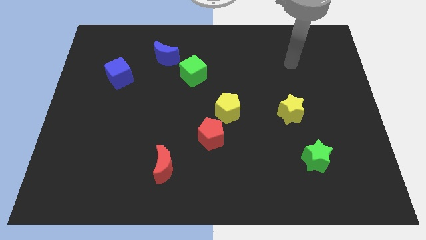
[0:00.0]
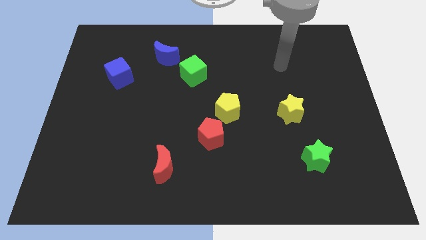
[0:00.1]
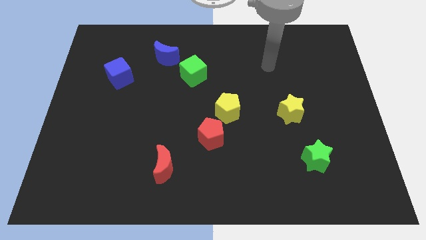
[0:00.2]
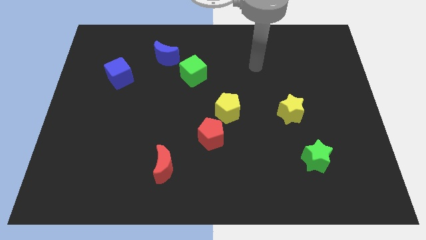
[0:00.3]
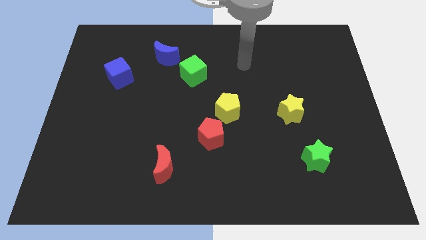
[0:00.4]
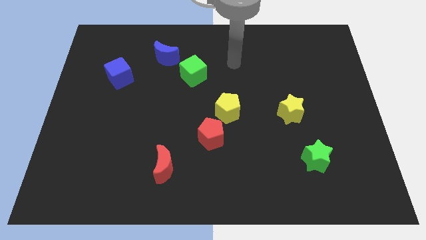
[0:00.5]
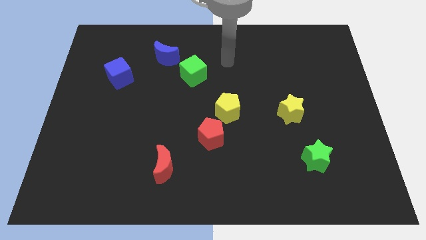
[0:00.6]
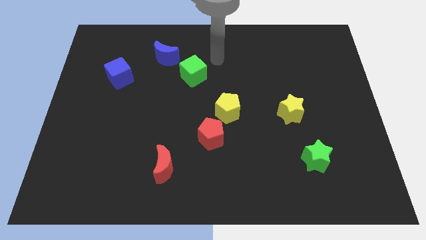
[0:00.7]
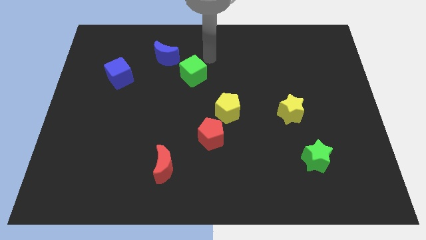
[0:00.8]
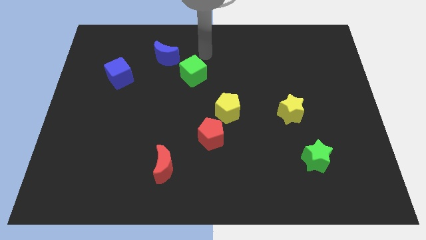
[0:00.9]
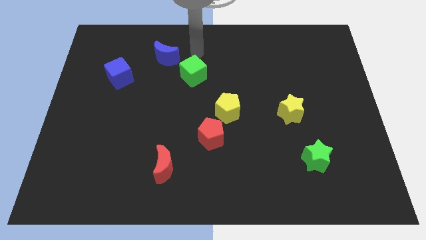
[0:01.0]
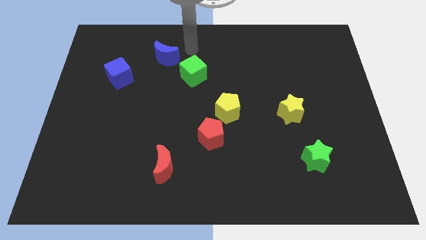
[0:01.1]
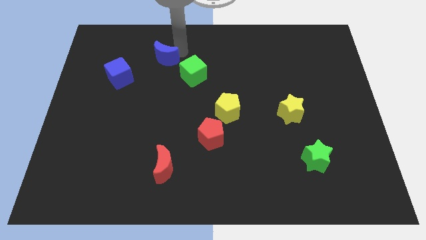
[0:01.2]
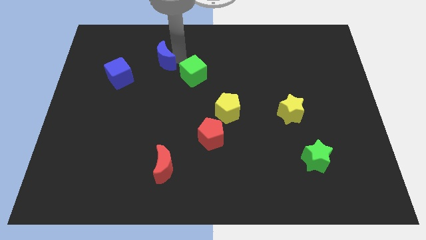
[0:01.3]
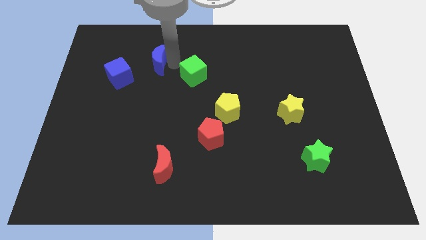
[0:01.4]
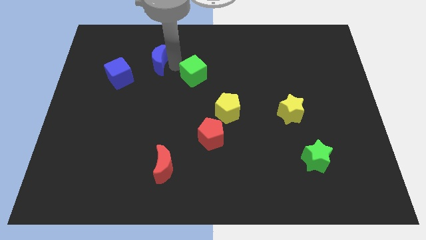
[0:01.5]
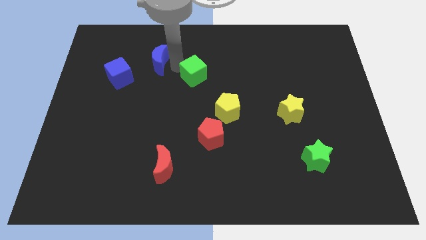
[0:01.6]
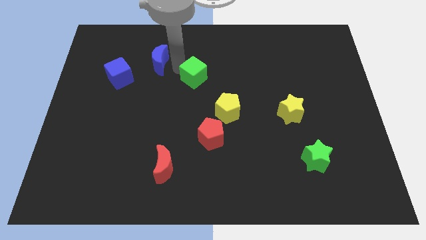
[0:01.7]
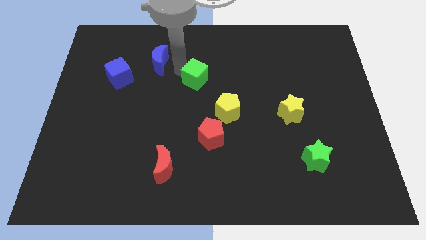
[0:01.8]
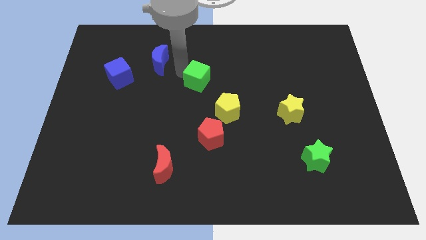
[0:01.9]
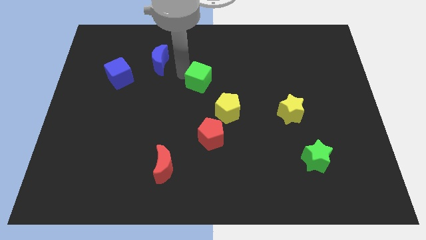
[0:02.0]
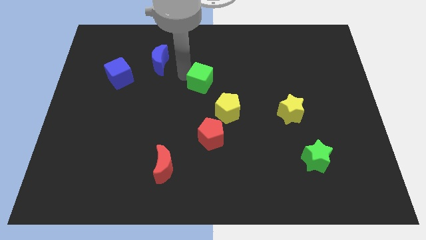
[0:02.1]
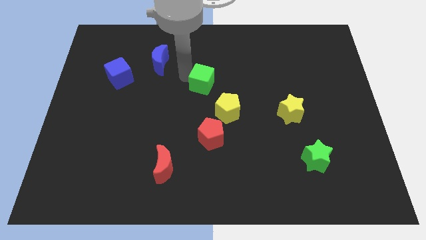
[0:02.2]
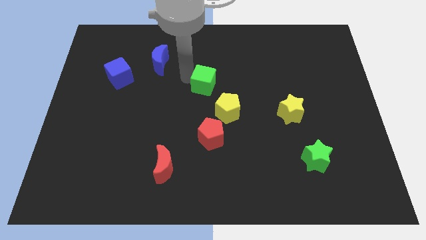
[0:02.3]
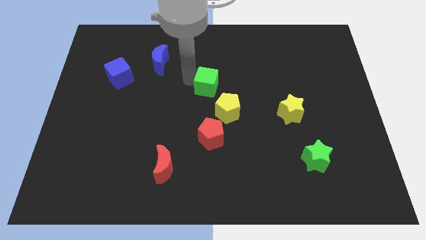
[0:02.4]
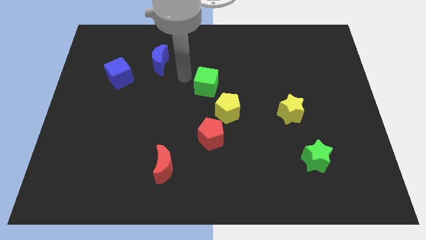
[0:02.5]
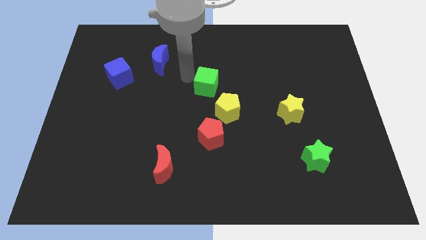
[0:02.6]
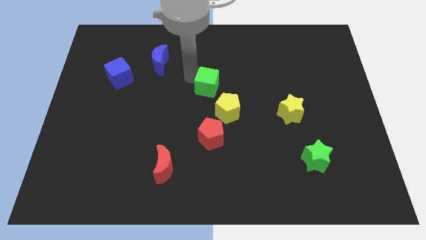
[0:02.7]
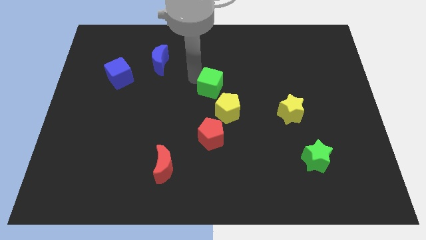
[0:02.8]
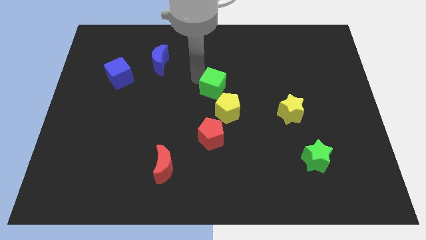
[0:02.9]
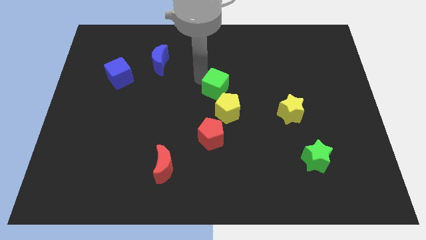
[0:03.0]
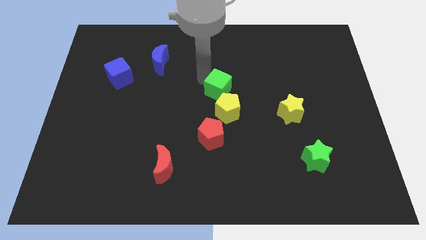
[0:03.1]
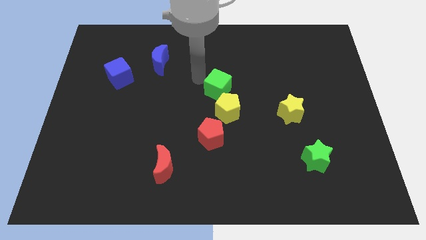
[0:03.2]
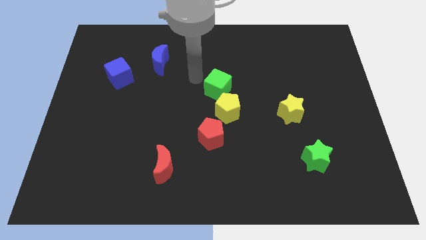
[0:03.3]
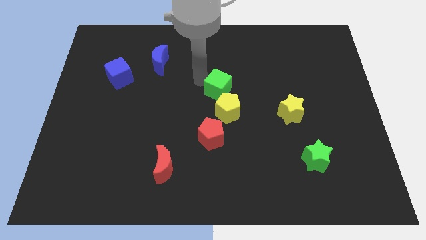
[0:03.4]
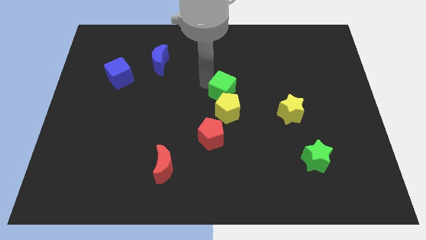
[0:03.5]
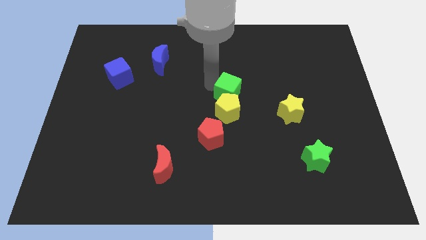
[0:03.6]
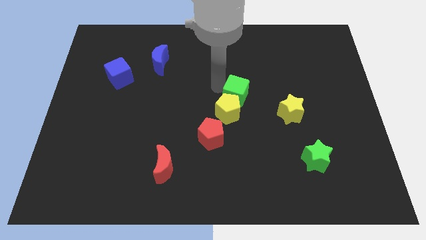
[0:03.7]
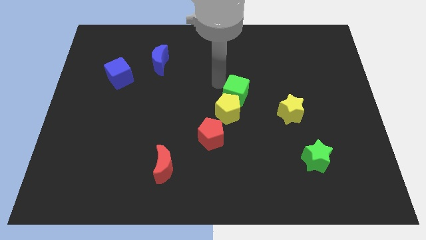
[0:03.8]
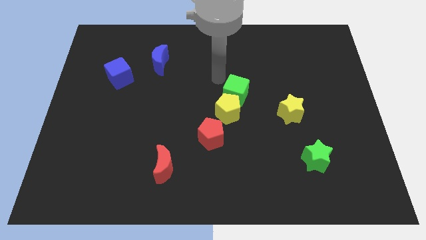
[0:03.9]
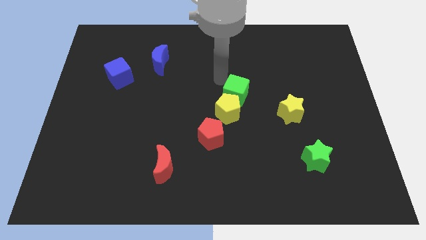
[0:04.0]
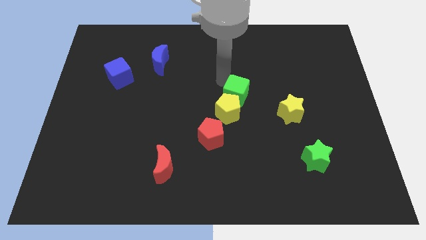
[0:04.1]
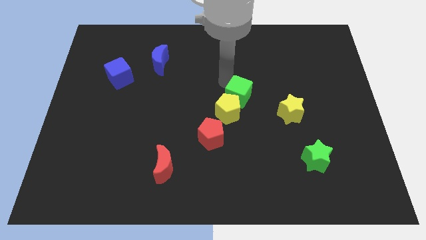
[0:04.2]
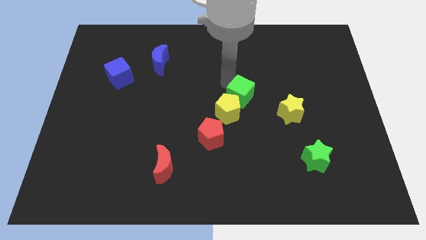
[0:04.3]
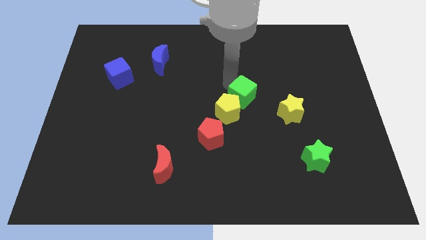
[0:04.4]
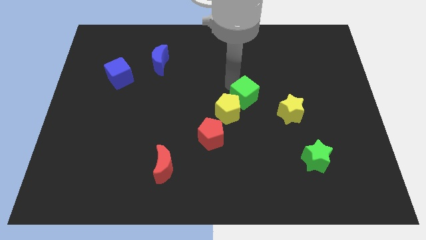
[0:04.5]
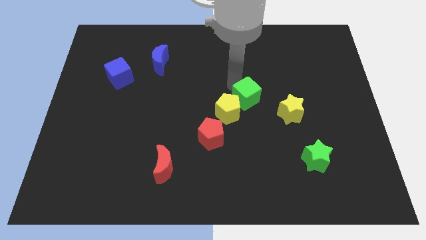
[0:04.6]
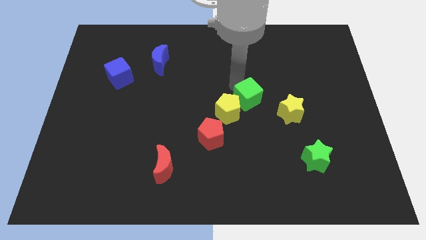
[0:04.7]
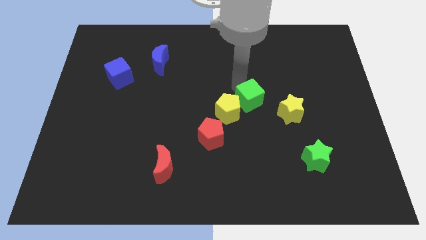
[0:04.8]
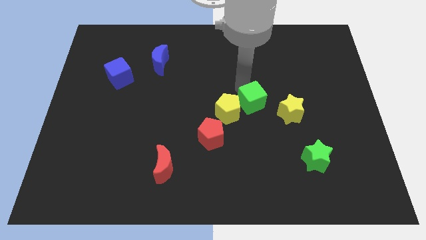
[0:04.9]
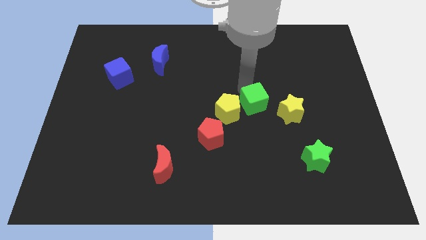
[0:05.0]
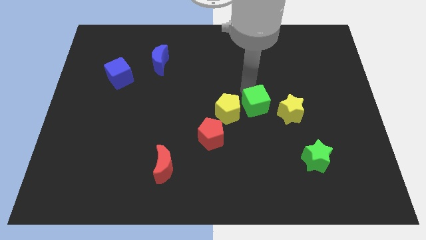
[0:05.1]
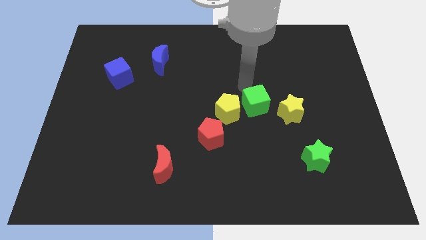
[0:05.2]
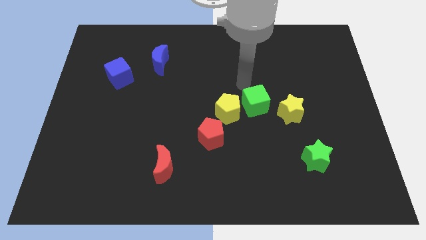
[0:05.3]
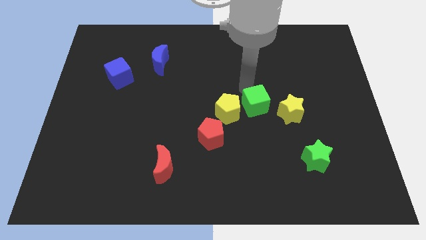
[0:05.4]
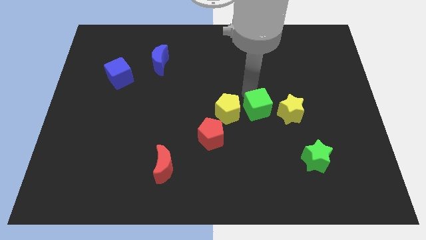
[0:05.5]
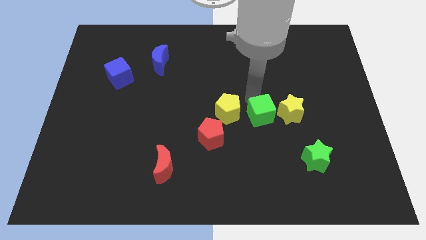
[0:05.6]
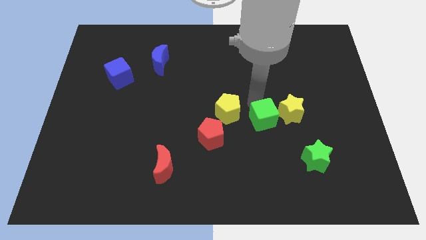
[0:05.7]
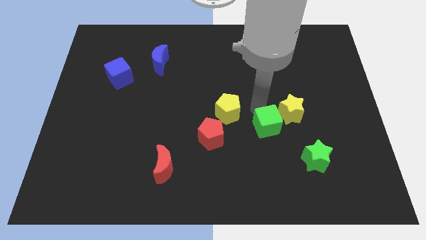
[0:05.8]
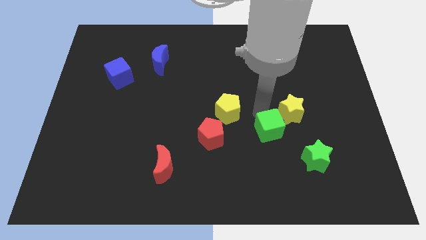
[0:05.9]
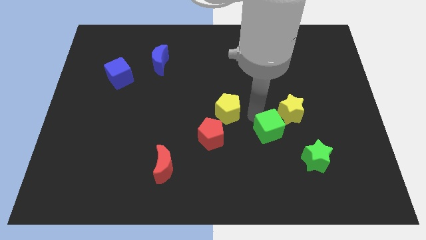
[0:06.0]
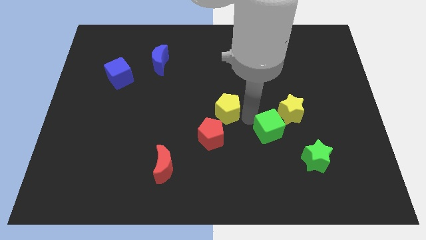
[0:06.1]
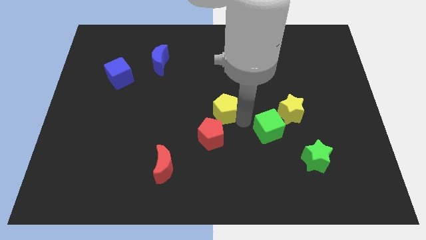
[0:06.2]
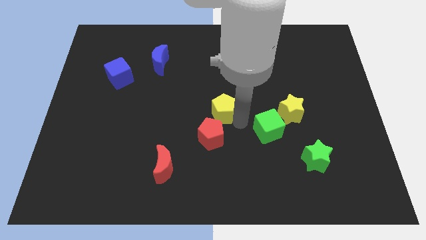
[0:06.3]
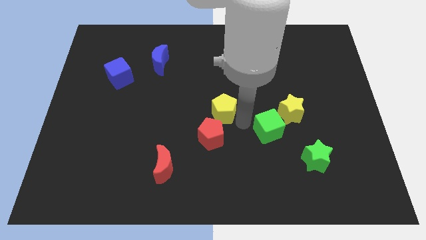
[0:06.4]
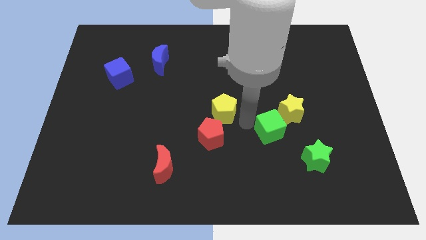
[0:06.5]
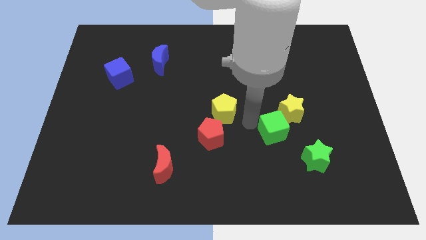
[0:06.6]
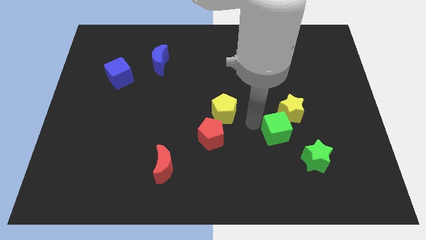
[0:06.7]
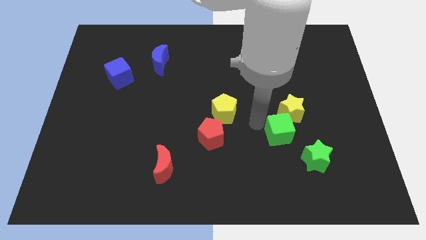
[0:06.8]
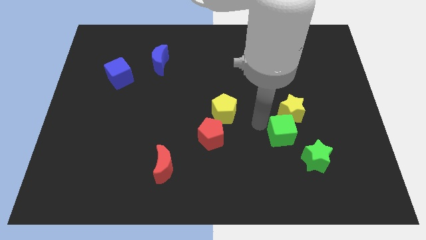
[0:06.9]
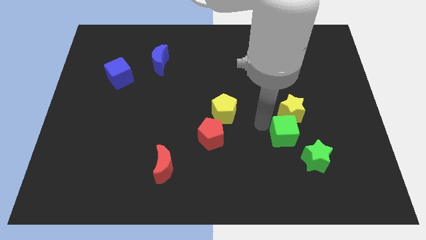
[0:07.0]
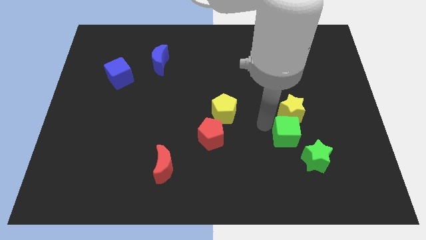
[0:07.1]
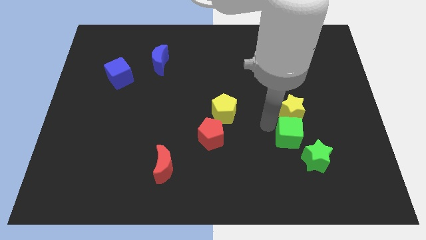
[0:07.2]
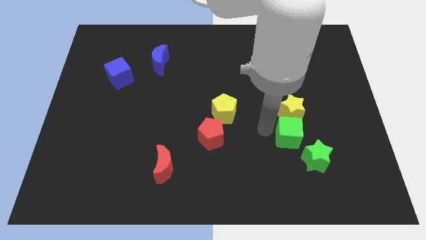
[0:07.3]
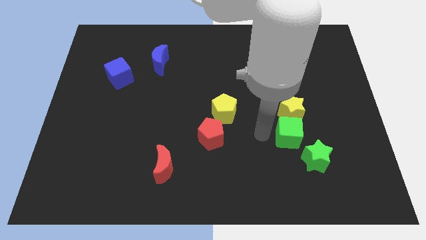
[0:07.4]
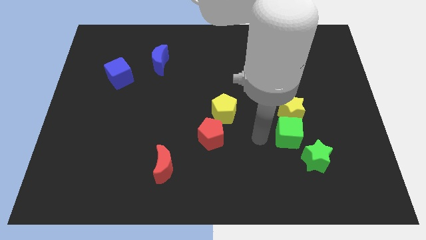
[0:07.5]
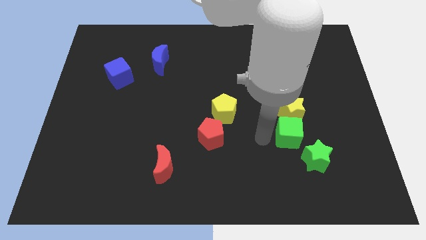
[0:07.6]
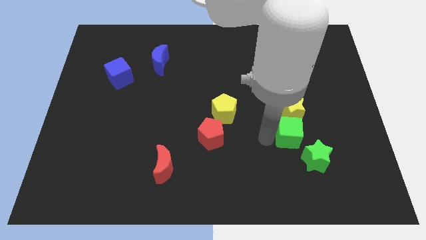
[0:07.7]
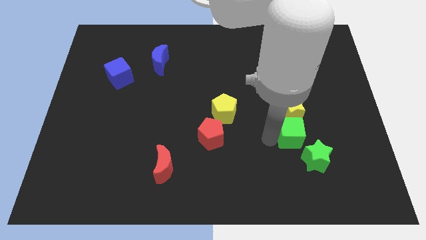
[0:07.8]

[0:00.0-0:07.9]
push the green cube diagonally down and to the right of the yellow star
